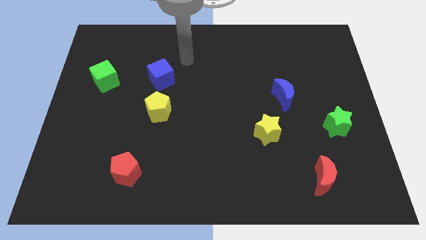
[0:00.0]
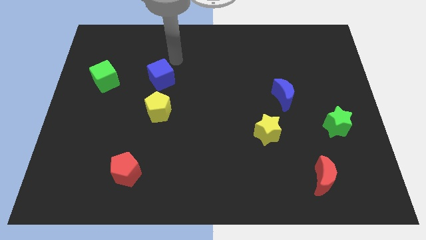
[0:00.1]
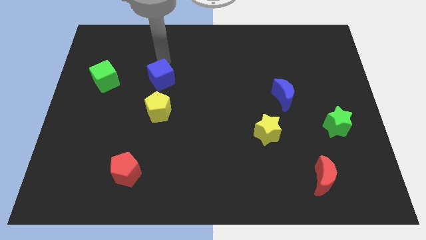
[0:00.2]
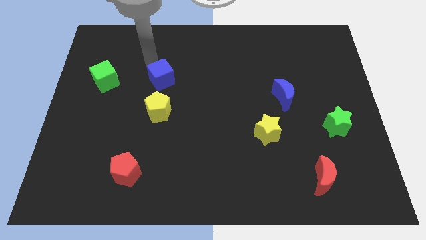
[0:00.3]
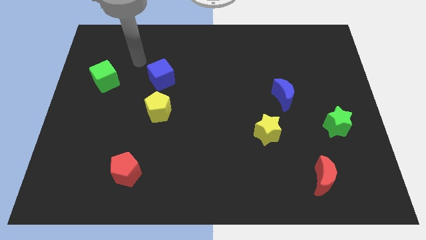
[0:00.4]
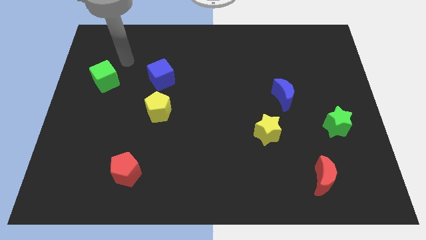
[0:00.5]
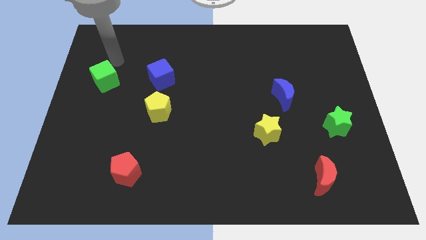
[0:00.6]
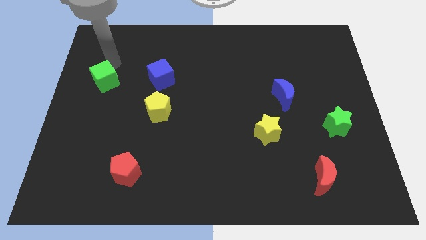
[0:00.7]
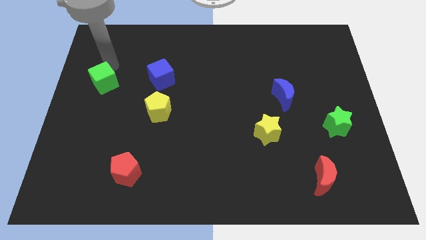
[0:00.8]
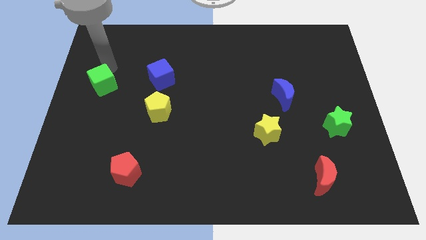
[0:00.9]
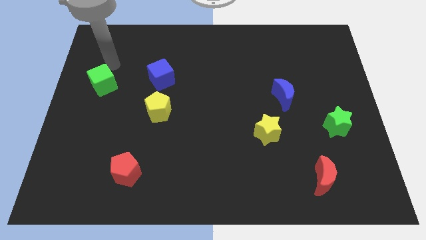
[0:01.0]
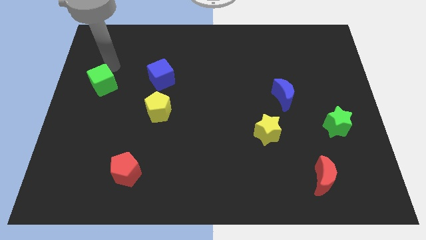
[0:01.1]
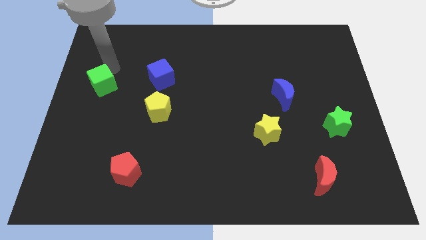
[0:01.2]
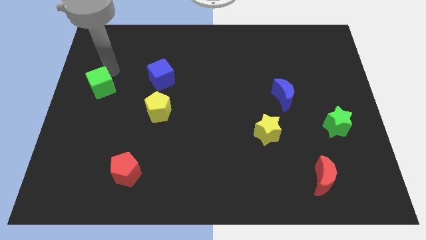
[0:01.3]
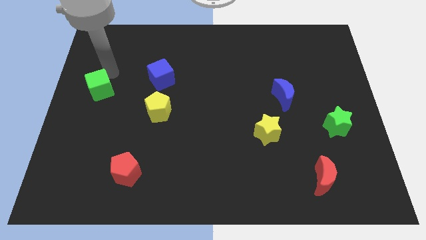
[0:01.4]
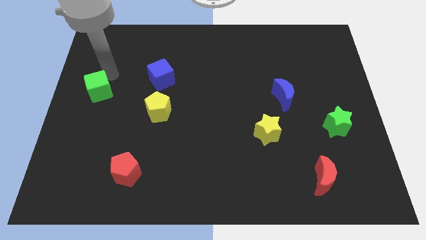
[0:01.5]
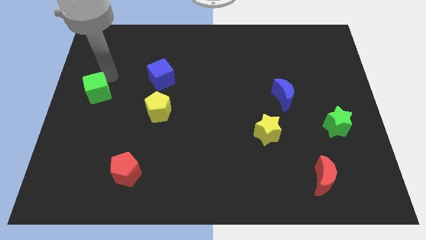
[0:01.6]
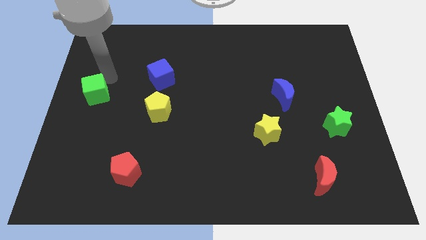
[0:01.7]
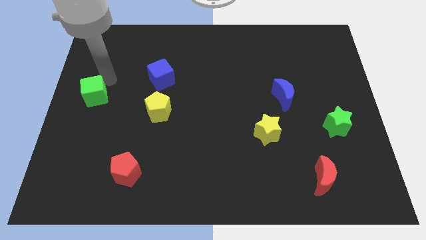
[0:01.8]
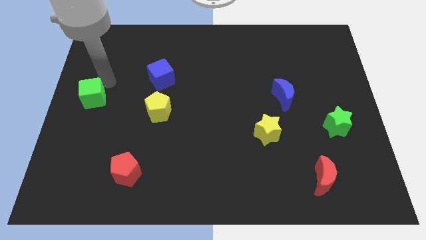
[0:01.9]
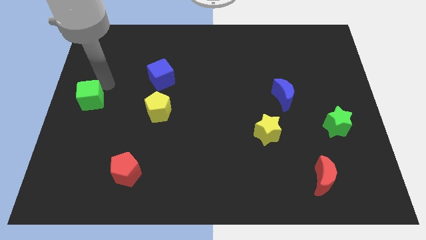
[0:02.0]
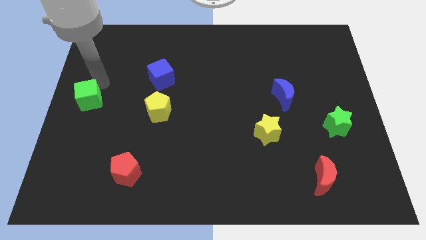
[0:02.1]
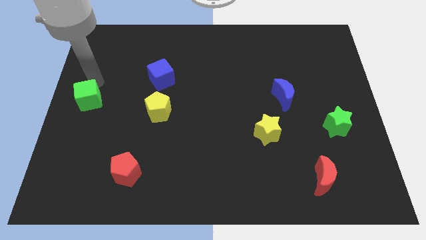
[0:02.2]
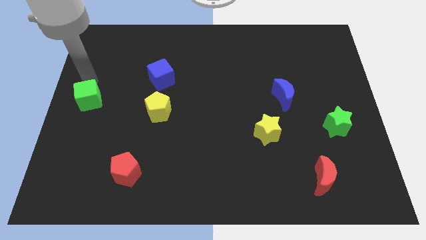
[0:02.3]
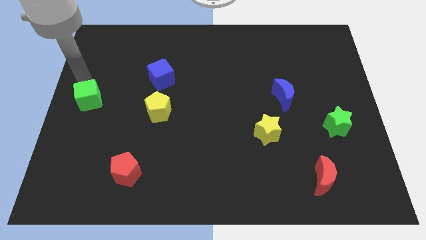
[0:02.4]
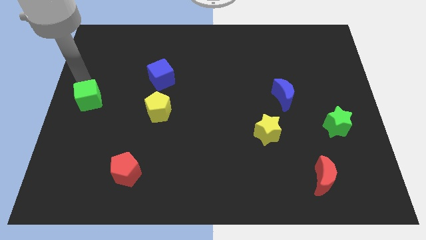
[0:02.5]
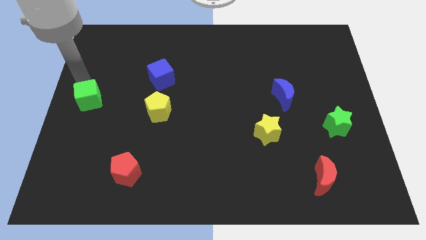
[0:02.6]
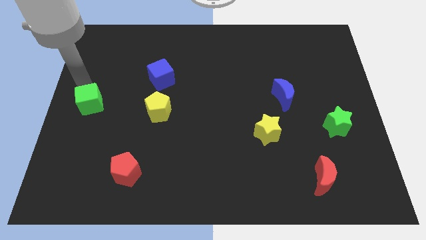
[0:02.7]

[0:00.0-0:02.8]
slide the green cube down somewhat

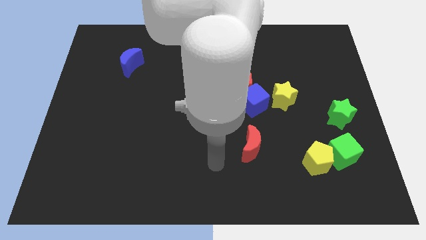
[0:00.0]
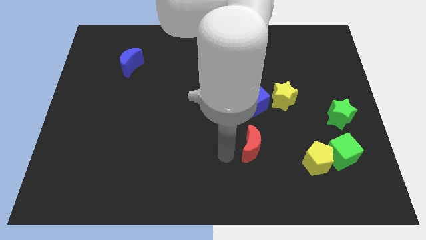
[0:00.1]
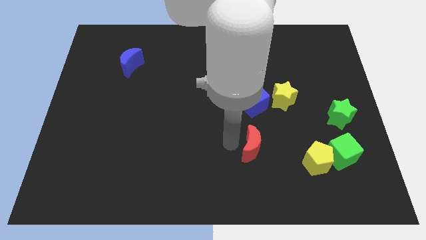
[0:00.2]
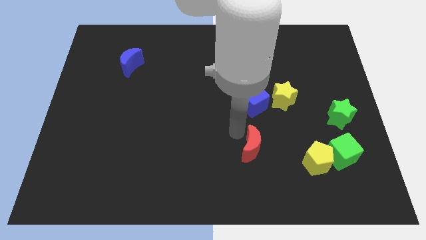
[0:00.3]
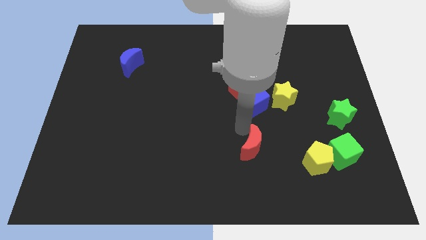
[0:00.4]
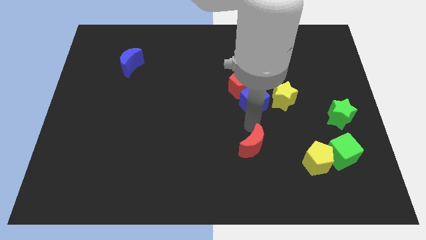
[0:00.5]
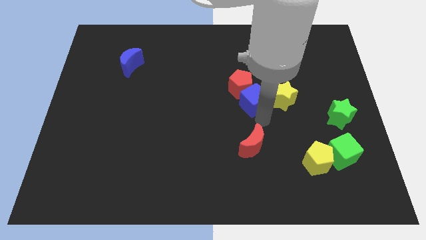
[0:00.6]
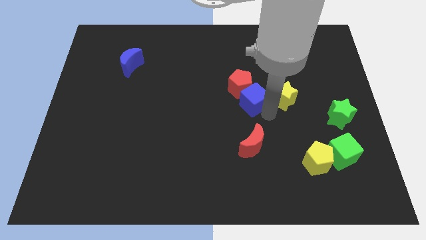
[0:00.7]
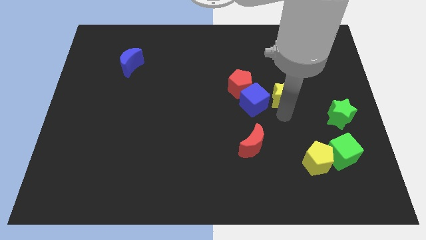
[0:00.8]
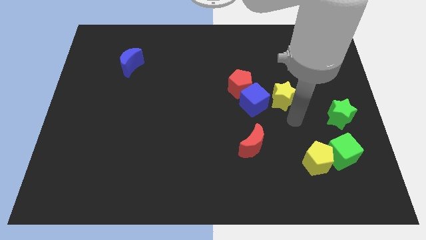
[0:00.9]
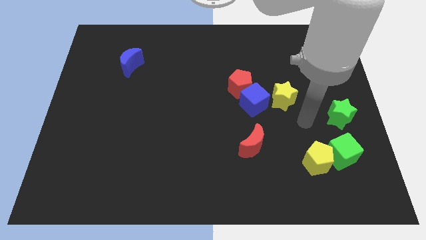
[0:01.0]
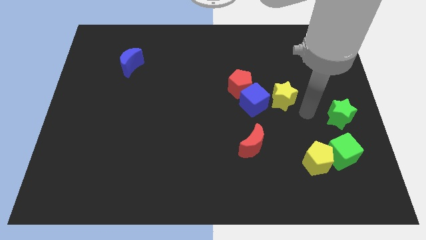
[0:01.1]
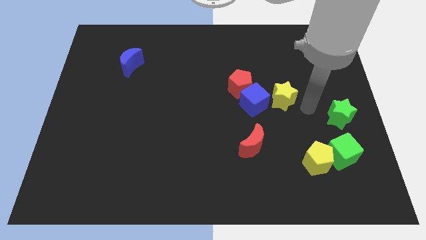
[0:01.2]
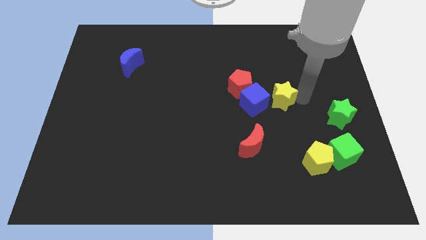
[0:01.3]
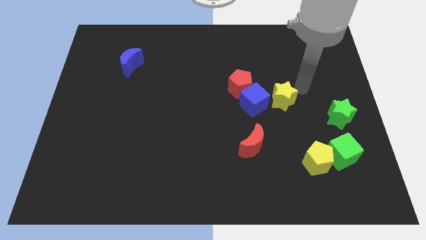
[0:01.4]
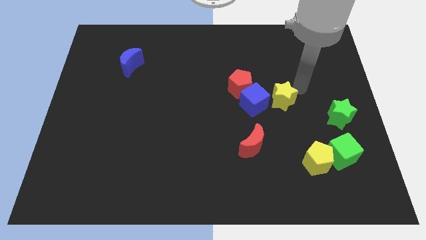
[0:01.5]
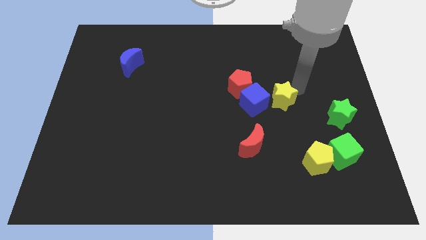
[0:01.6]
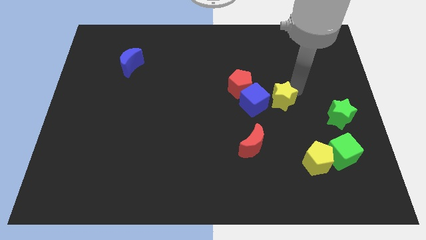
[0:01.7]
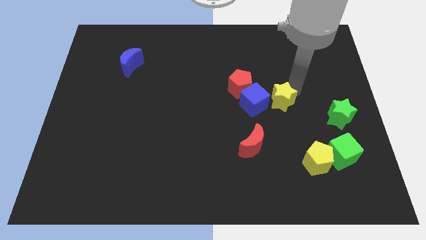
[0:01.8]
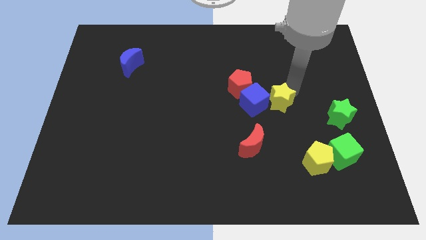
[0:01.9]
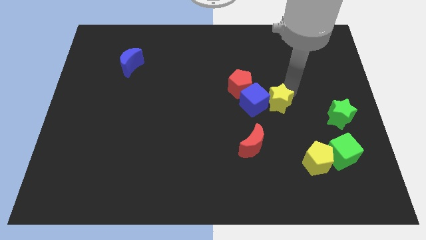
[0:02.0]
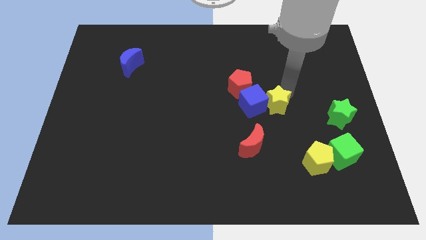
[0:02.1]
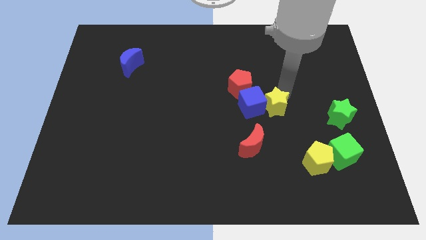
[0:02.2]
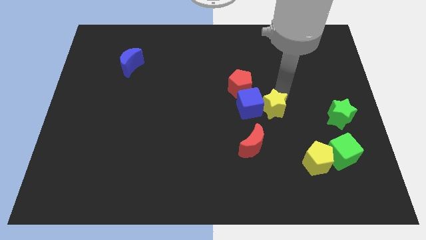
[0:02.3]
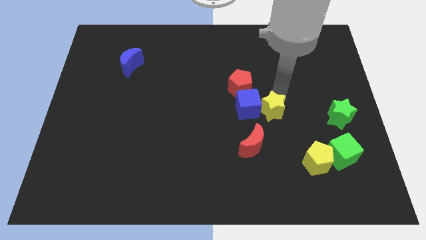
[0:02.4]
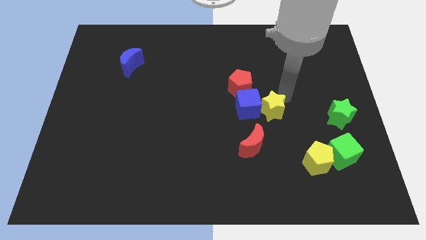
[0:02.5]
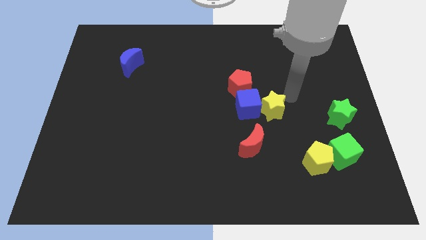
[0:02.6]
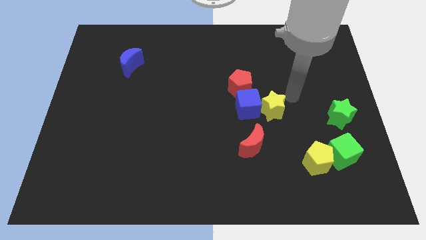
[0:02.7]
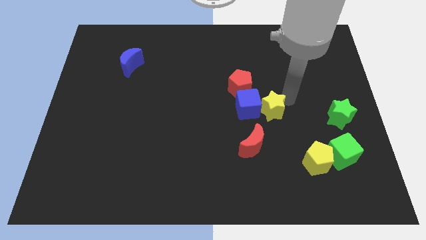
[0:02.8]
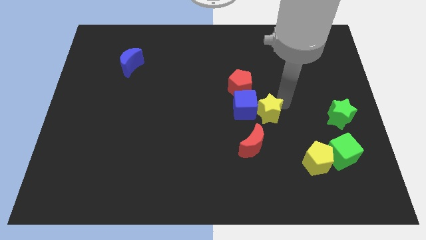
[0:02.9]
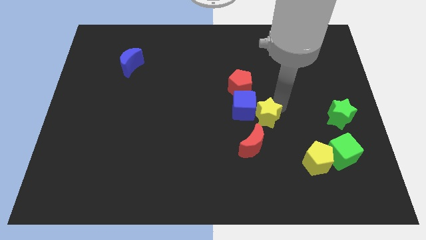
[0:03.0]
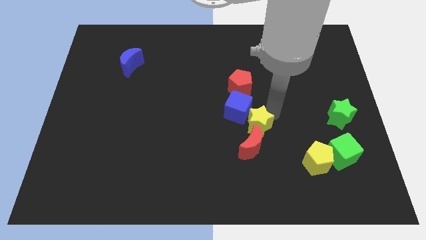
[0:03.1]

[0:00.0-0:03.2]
move the yellow star diagonally downwards and to the left a little bit

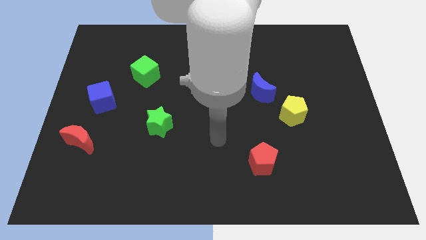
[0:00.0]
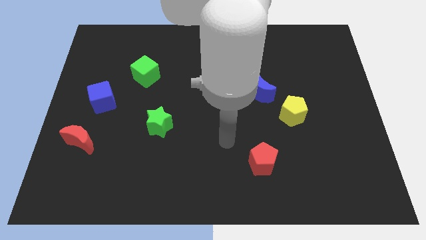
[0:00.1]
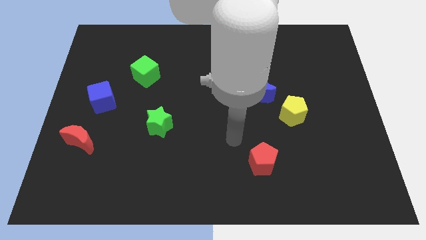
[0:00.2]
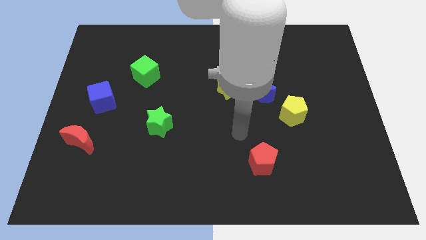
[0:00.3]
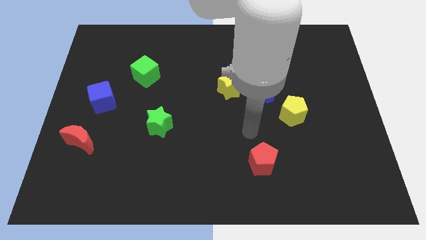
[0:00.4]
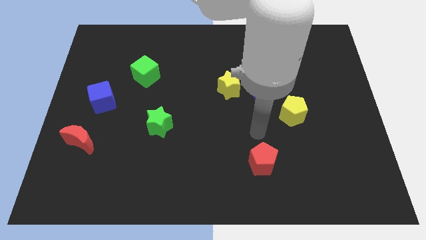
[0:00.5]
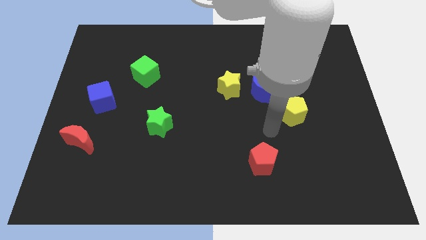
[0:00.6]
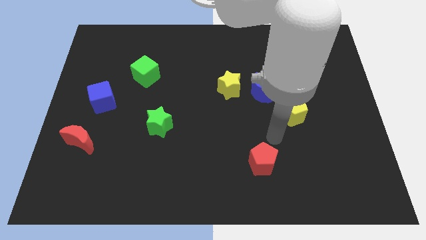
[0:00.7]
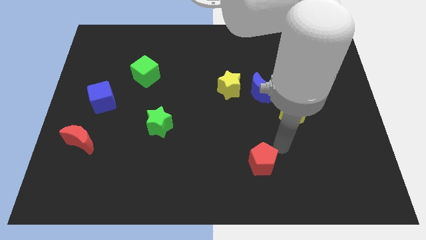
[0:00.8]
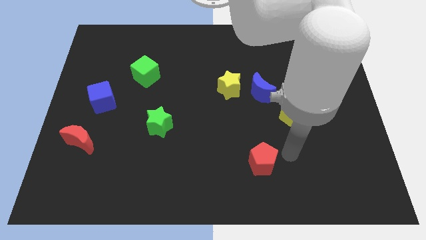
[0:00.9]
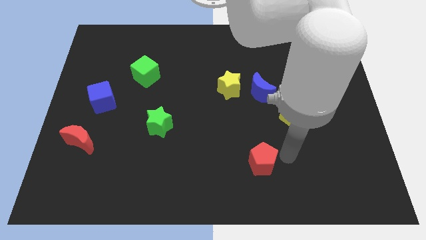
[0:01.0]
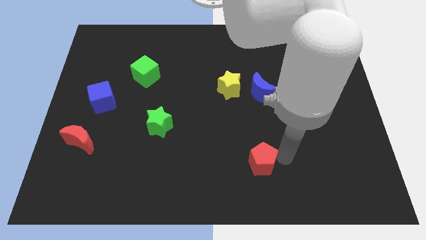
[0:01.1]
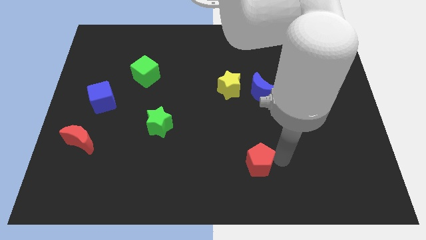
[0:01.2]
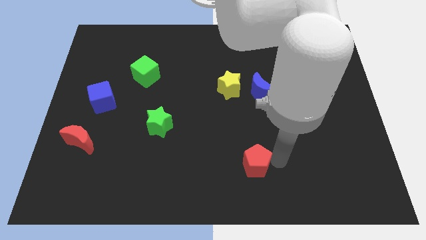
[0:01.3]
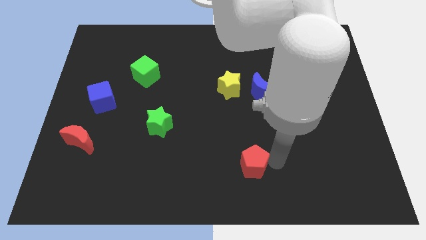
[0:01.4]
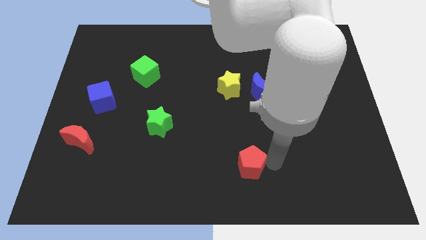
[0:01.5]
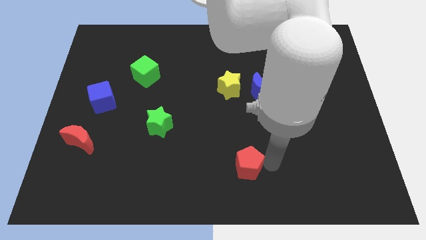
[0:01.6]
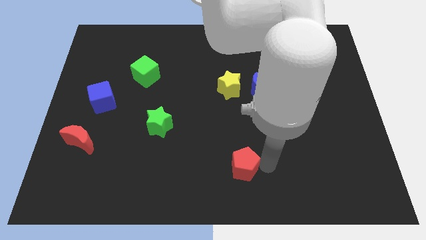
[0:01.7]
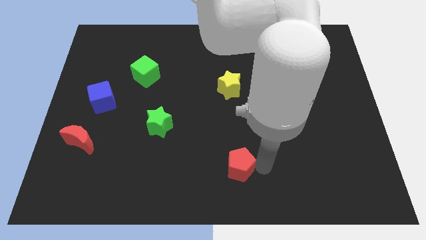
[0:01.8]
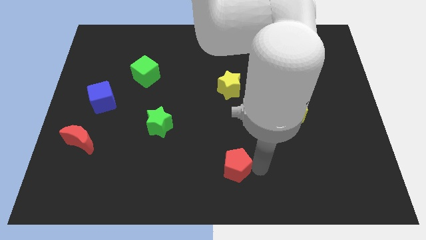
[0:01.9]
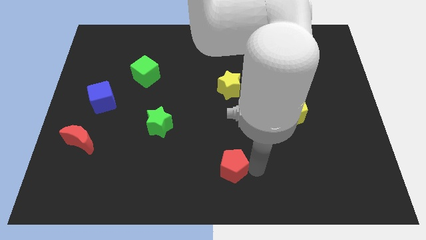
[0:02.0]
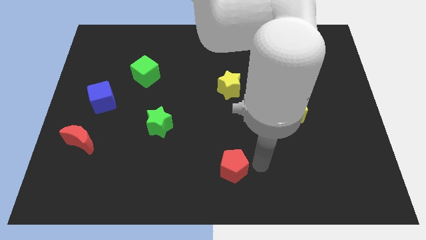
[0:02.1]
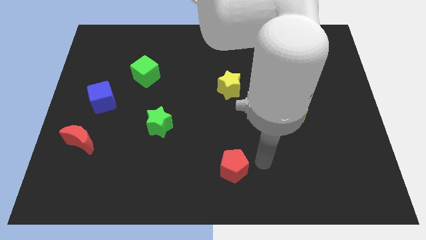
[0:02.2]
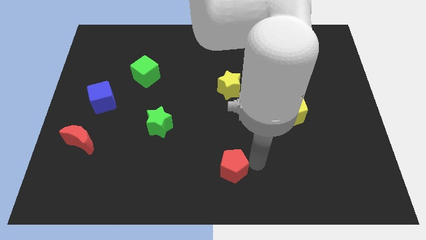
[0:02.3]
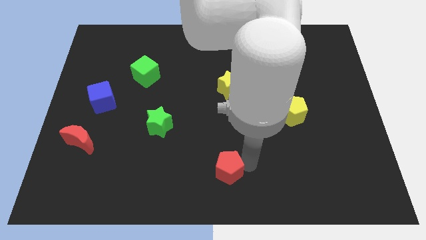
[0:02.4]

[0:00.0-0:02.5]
slide the red pentagon slightly left
